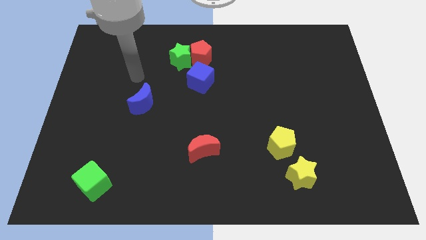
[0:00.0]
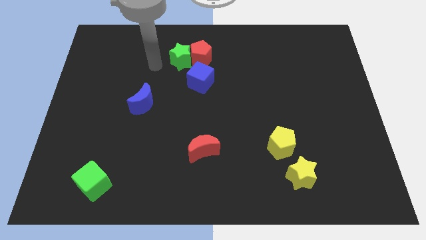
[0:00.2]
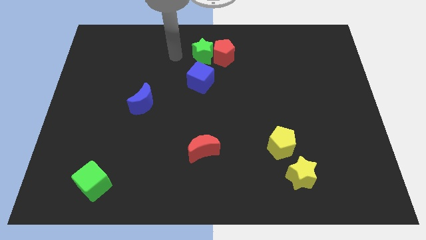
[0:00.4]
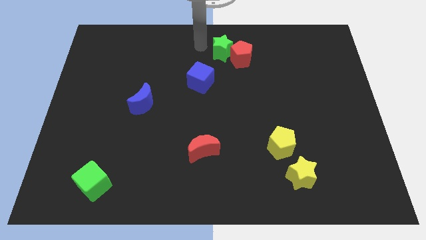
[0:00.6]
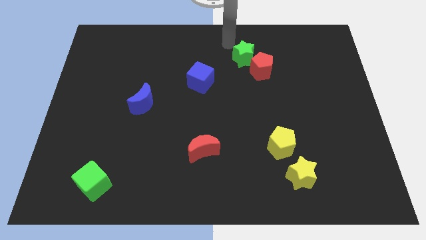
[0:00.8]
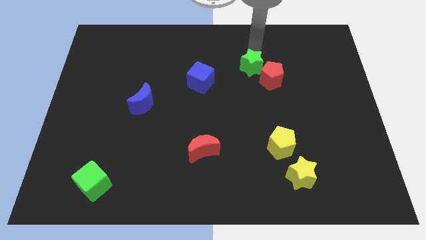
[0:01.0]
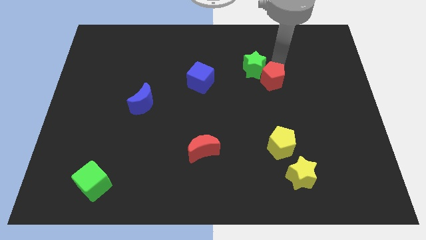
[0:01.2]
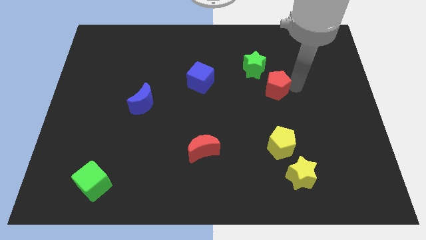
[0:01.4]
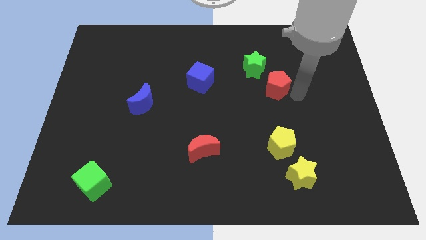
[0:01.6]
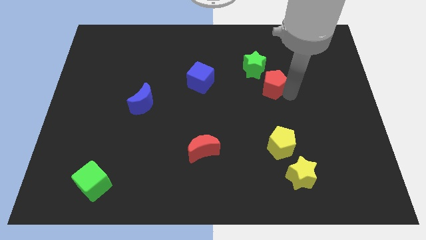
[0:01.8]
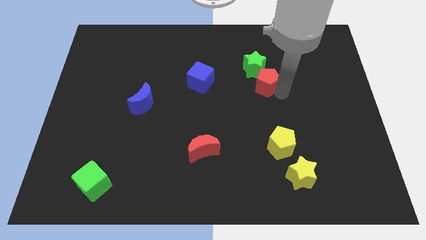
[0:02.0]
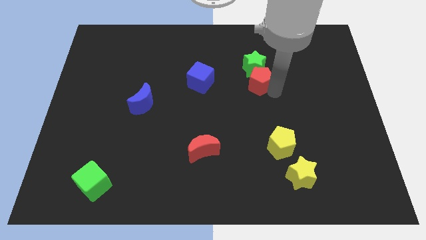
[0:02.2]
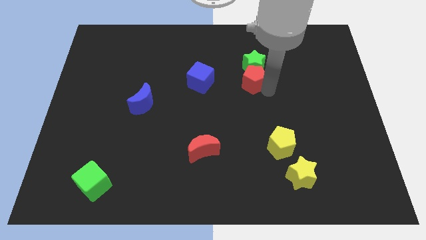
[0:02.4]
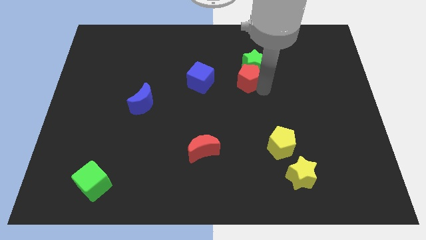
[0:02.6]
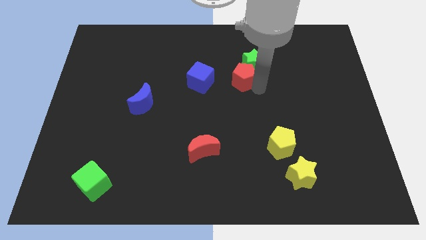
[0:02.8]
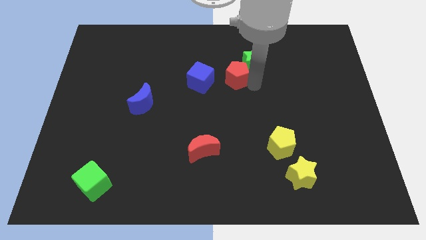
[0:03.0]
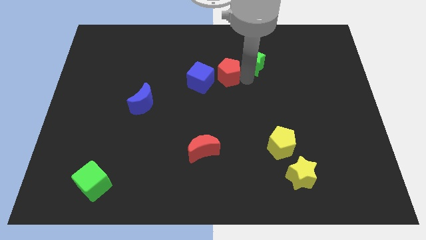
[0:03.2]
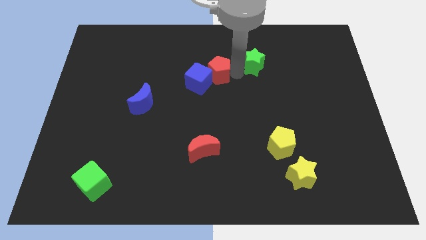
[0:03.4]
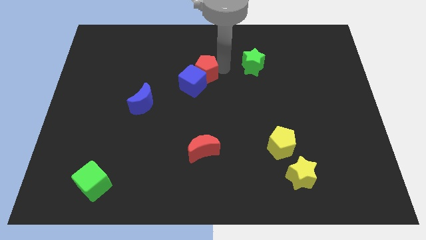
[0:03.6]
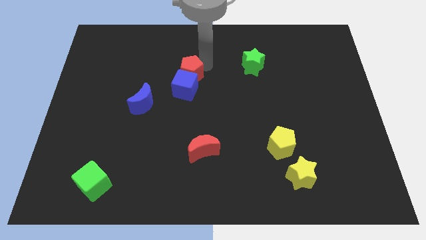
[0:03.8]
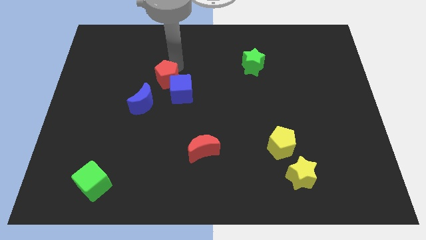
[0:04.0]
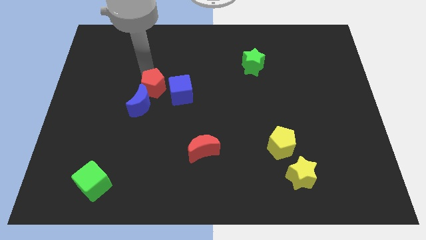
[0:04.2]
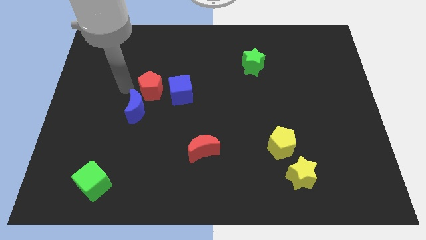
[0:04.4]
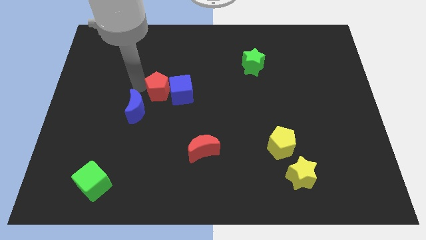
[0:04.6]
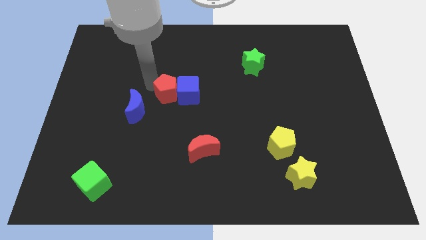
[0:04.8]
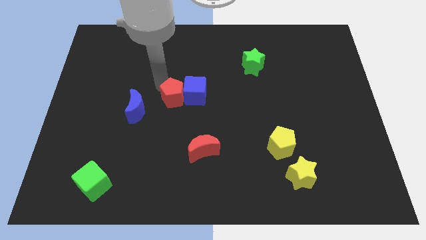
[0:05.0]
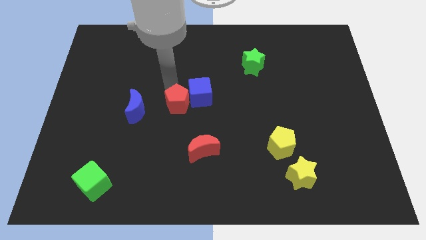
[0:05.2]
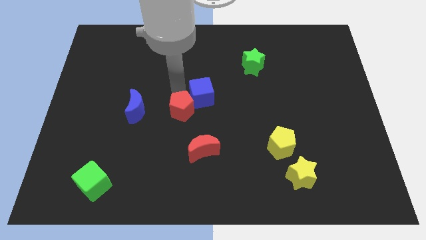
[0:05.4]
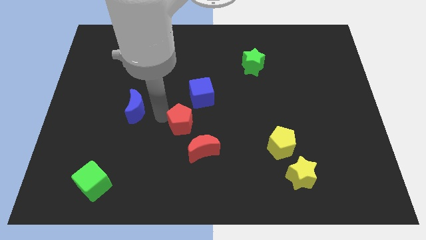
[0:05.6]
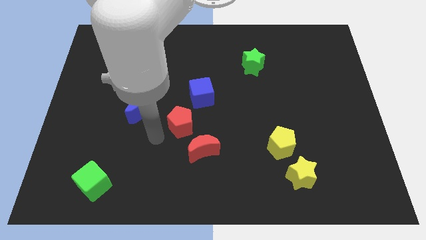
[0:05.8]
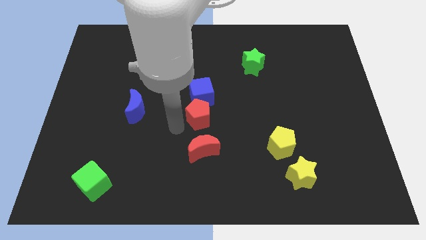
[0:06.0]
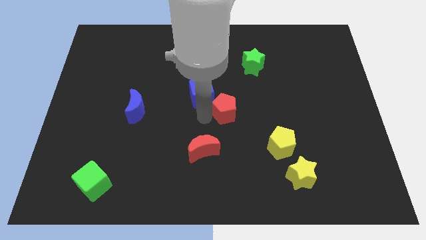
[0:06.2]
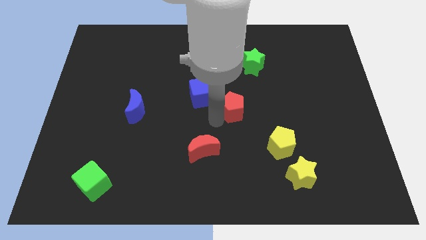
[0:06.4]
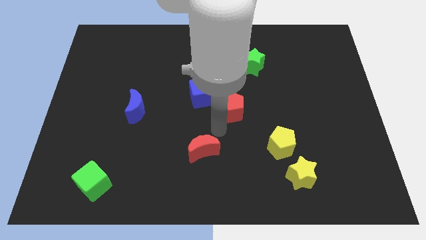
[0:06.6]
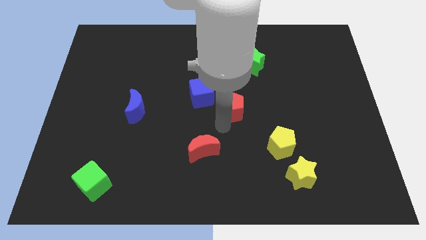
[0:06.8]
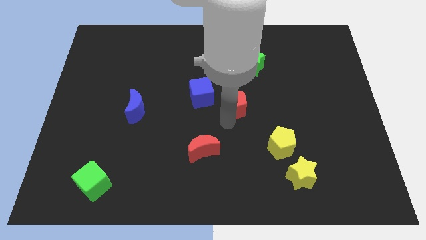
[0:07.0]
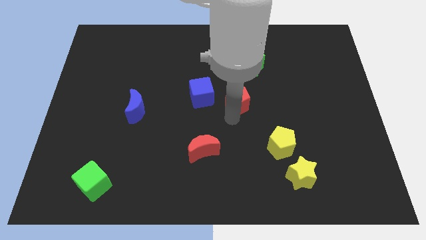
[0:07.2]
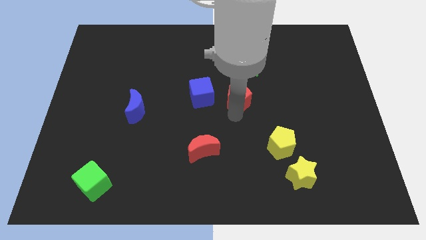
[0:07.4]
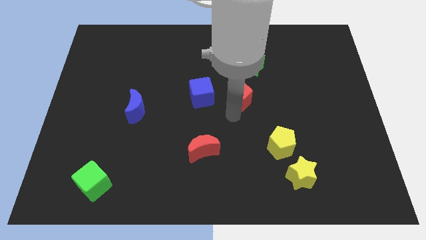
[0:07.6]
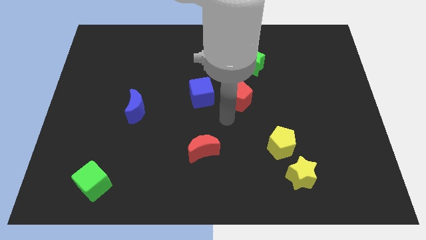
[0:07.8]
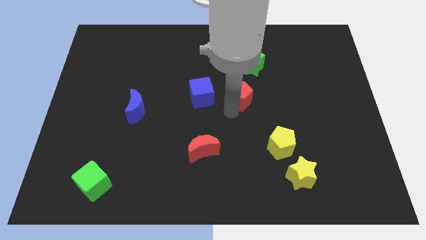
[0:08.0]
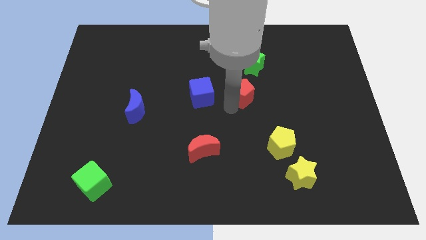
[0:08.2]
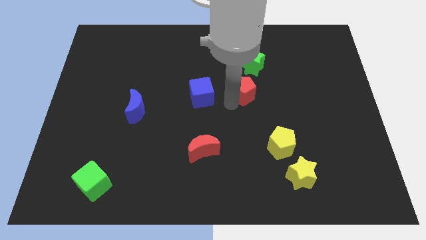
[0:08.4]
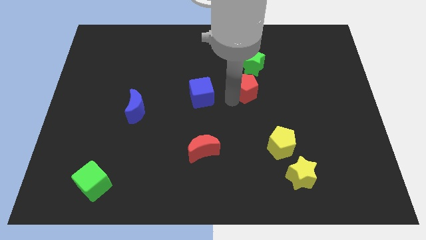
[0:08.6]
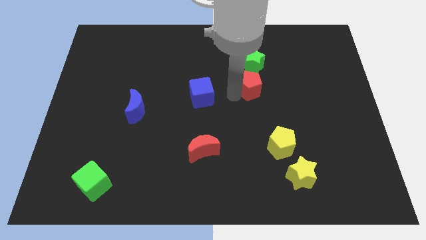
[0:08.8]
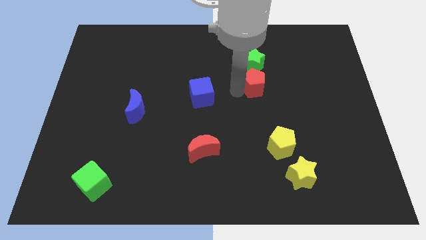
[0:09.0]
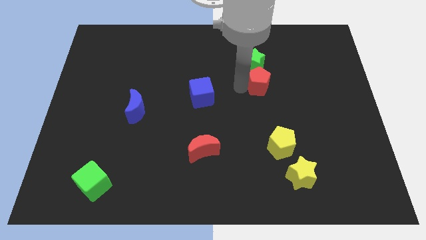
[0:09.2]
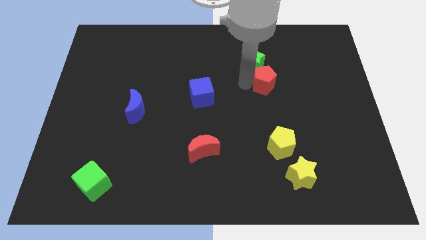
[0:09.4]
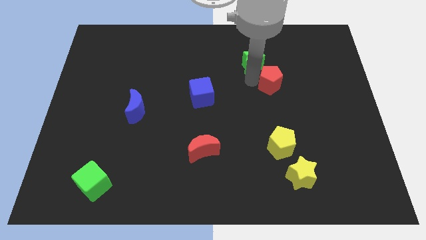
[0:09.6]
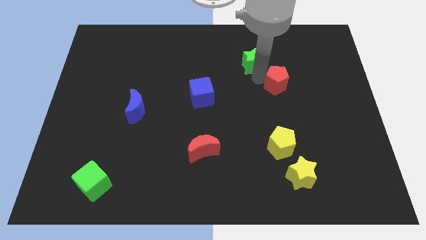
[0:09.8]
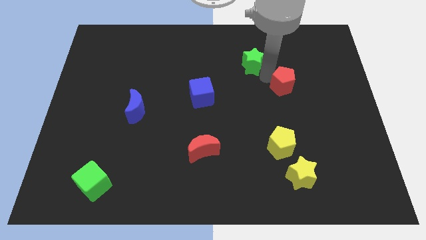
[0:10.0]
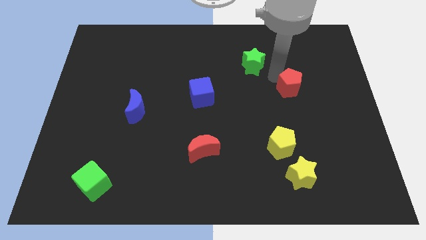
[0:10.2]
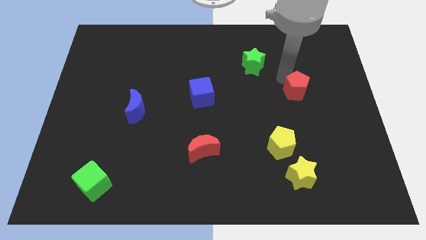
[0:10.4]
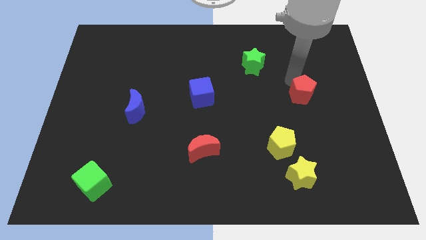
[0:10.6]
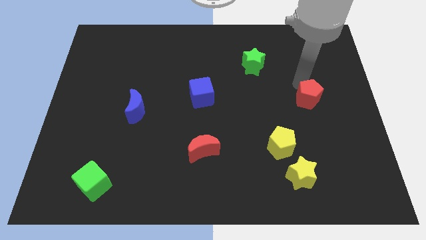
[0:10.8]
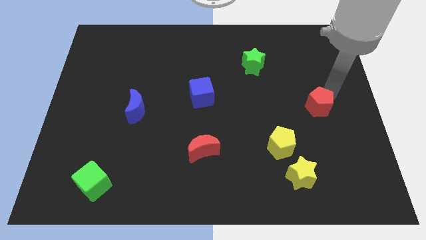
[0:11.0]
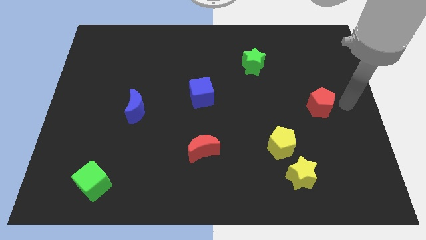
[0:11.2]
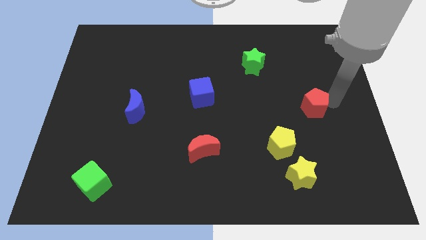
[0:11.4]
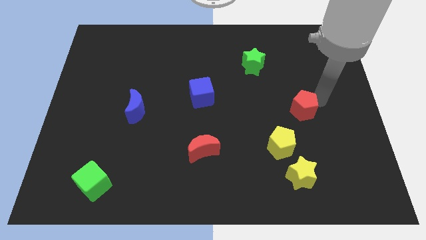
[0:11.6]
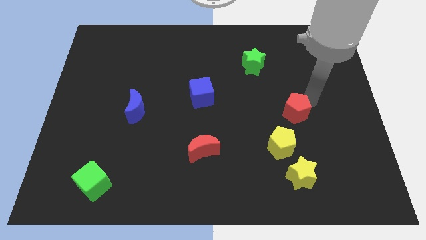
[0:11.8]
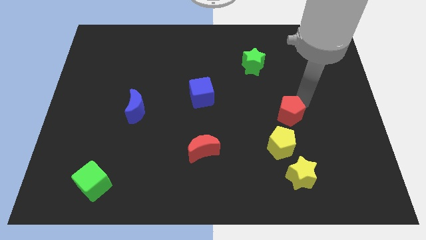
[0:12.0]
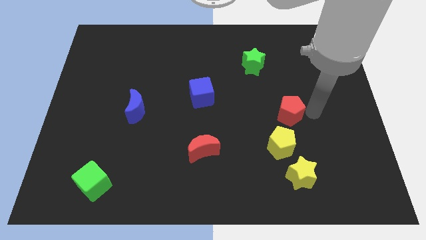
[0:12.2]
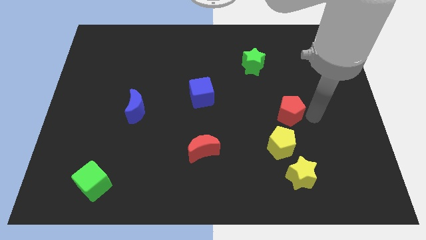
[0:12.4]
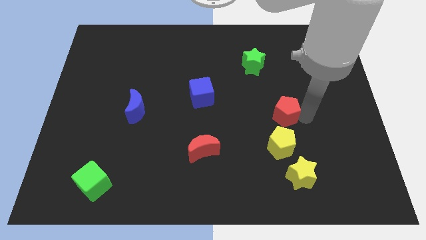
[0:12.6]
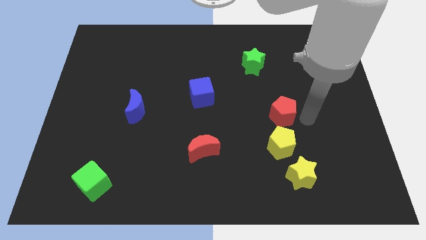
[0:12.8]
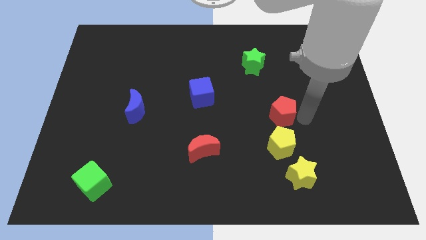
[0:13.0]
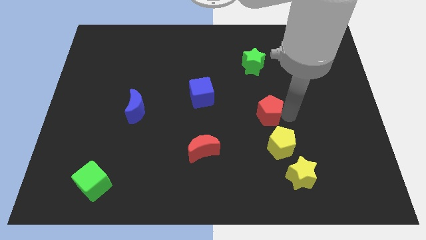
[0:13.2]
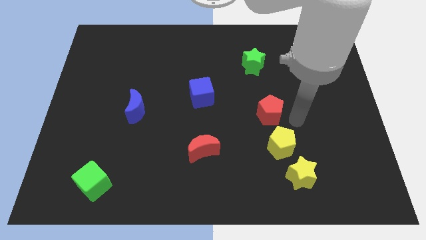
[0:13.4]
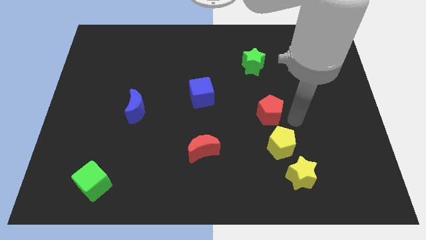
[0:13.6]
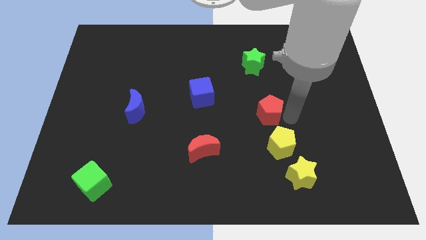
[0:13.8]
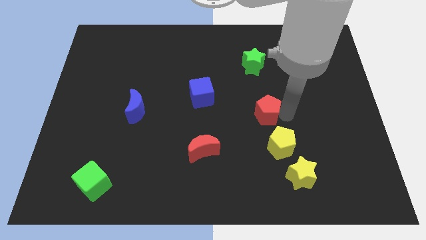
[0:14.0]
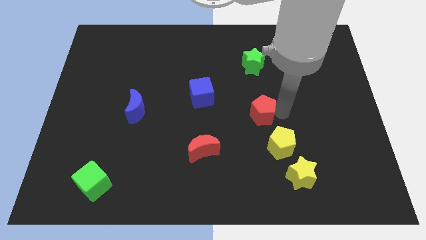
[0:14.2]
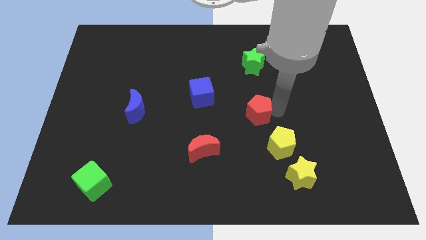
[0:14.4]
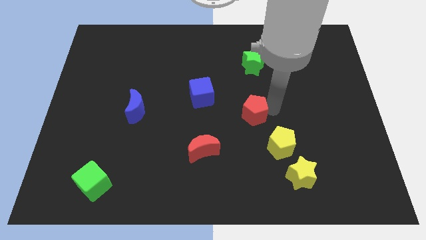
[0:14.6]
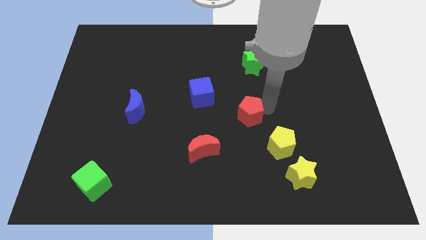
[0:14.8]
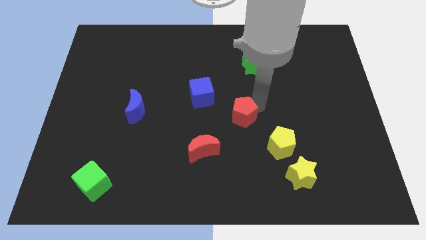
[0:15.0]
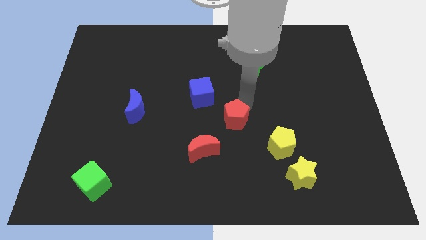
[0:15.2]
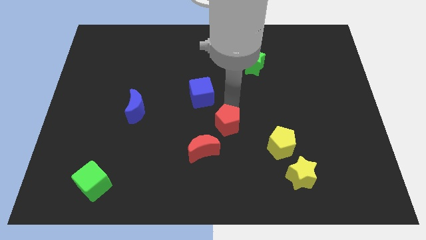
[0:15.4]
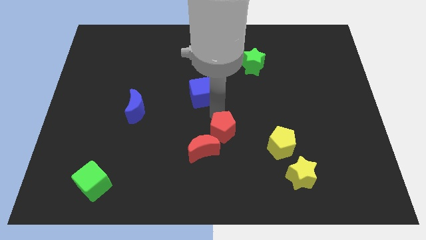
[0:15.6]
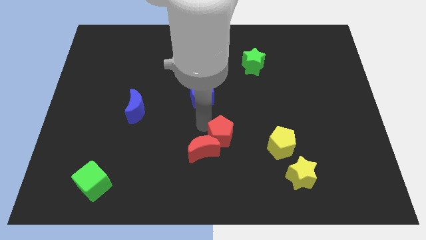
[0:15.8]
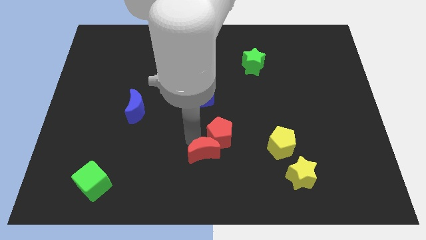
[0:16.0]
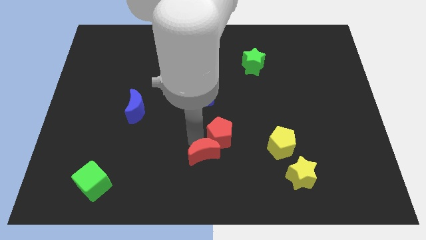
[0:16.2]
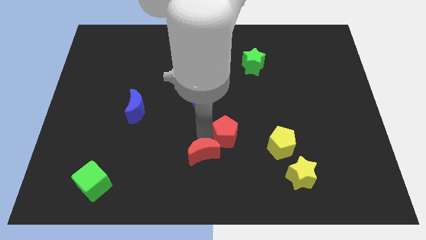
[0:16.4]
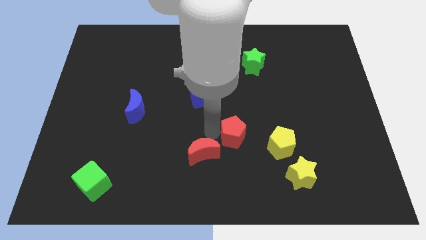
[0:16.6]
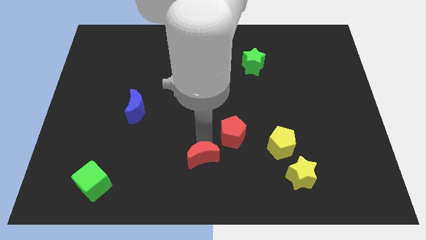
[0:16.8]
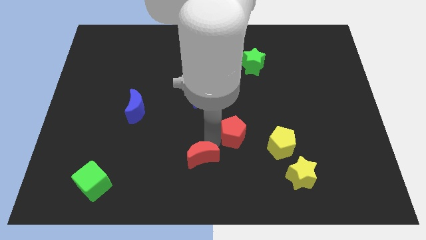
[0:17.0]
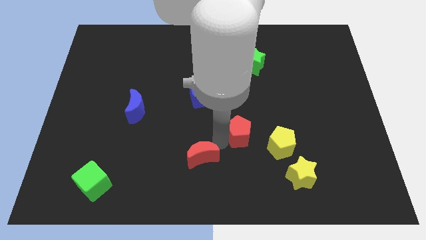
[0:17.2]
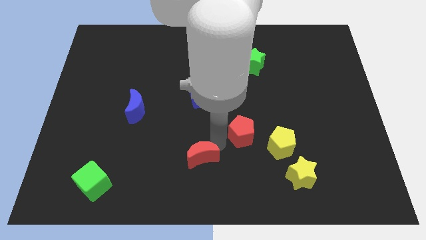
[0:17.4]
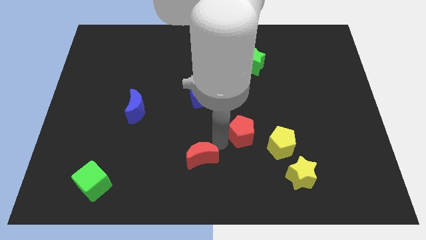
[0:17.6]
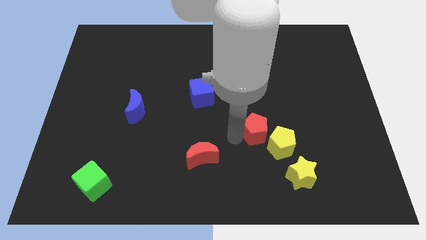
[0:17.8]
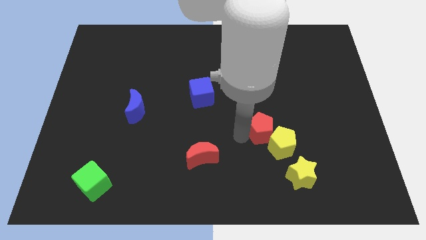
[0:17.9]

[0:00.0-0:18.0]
slide the red pentagon towards the yellow pentagon
